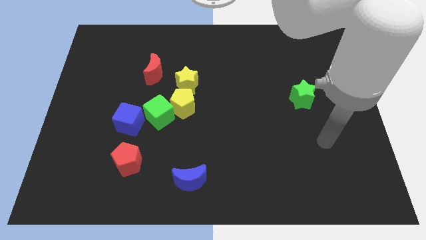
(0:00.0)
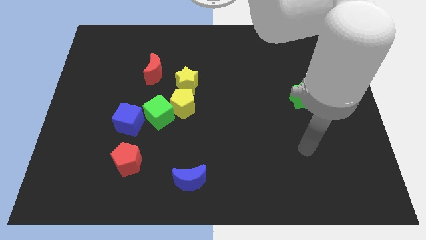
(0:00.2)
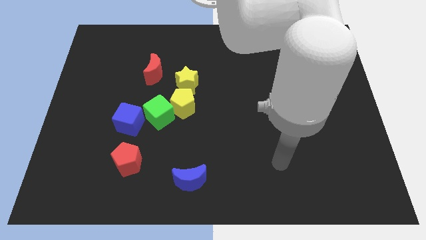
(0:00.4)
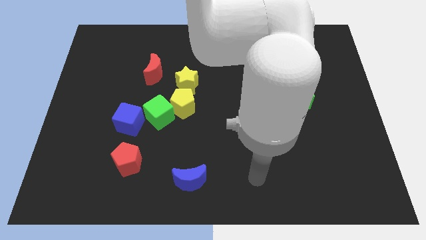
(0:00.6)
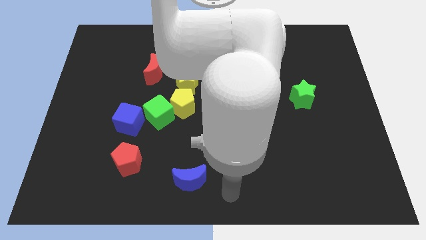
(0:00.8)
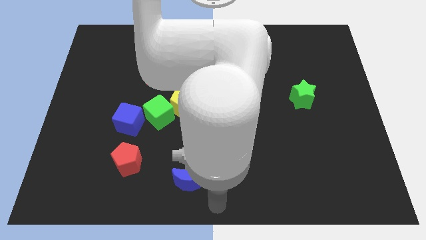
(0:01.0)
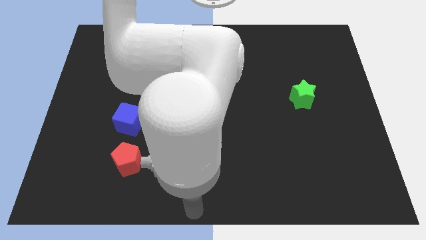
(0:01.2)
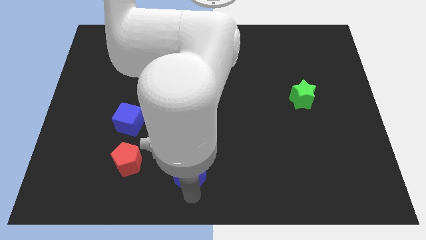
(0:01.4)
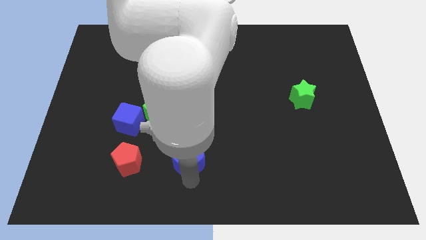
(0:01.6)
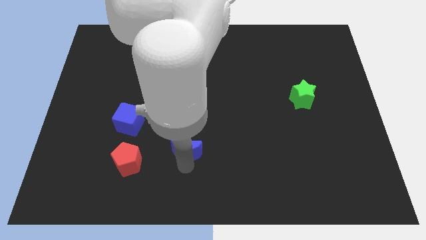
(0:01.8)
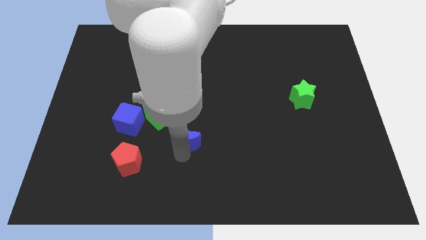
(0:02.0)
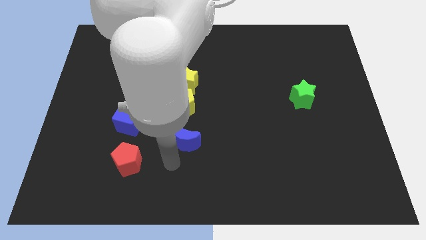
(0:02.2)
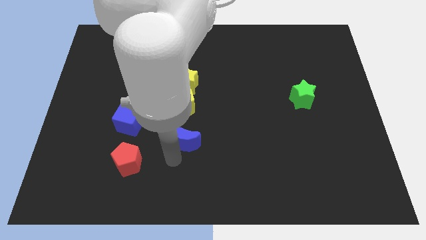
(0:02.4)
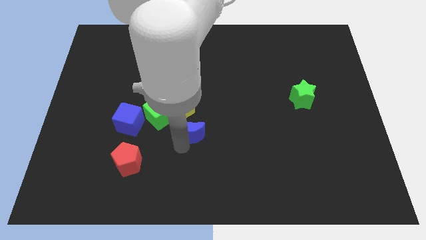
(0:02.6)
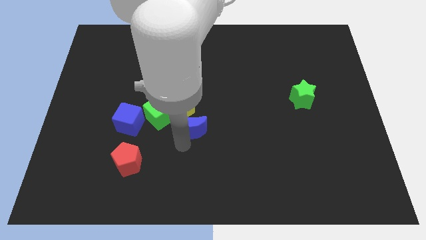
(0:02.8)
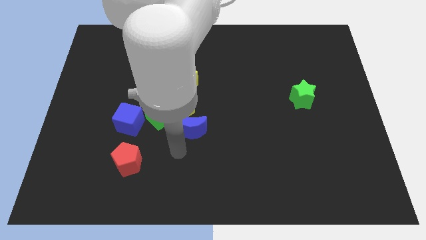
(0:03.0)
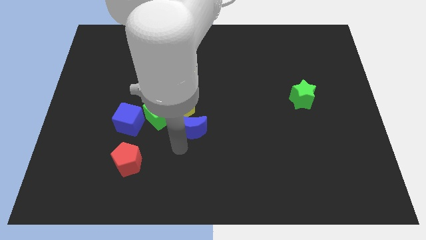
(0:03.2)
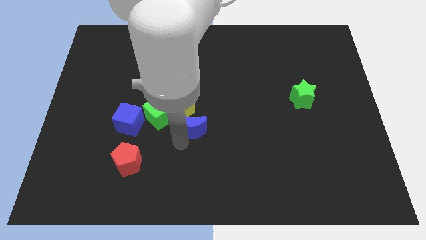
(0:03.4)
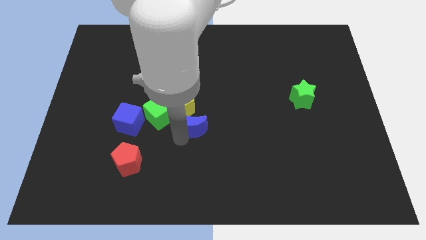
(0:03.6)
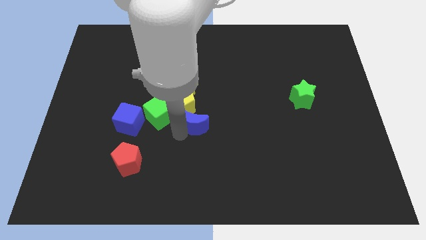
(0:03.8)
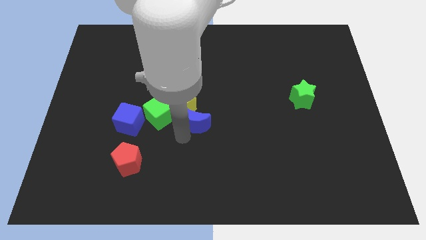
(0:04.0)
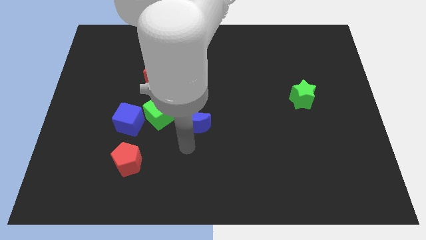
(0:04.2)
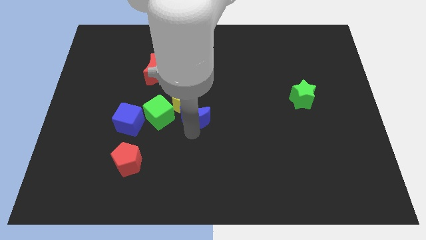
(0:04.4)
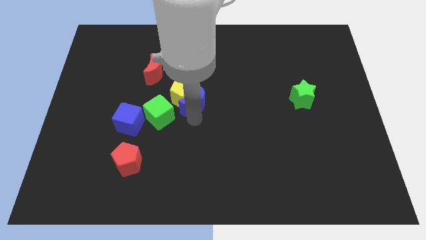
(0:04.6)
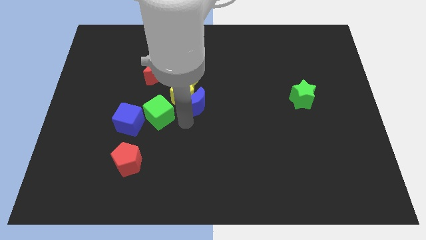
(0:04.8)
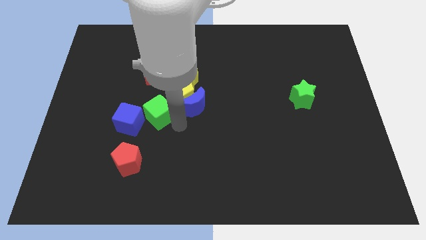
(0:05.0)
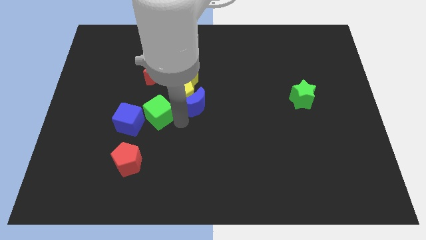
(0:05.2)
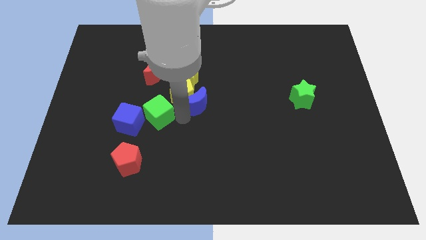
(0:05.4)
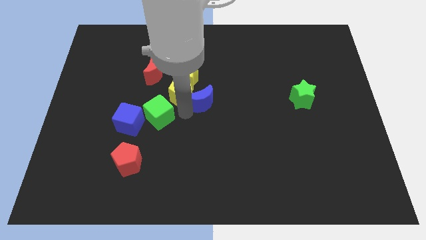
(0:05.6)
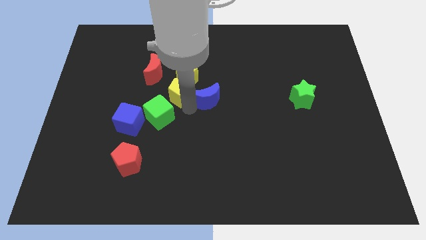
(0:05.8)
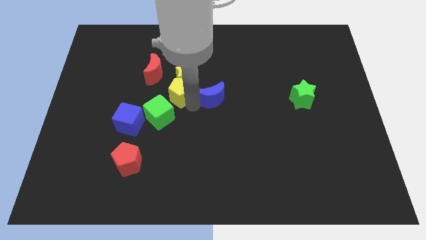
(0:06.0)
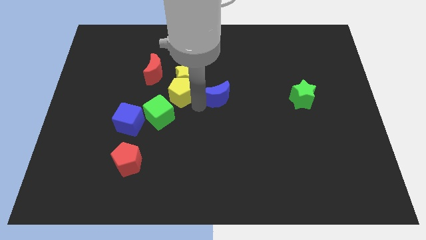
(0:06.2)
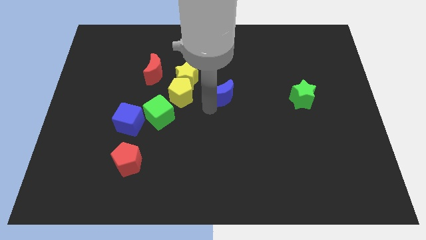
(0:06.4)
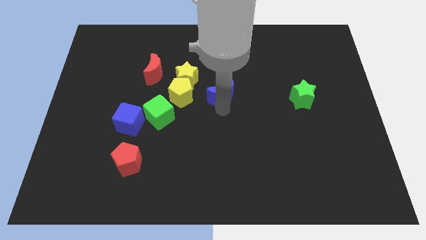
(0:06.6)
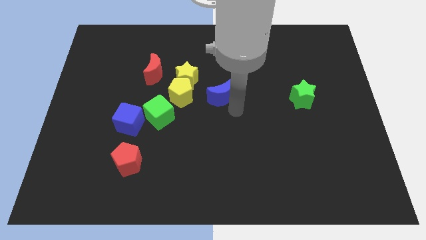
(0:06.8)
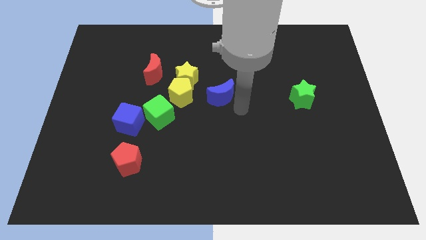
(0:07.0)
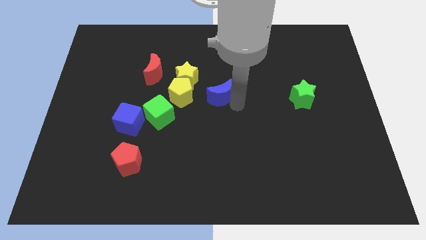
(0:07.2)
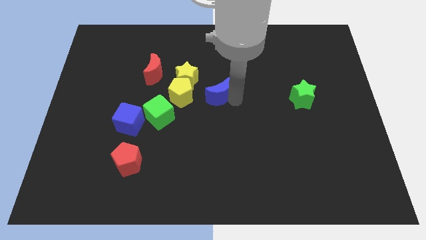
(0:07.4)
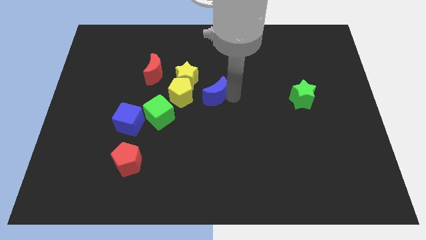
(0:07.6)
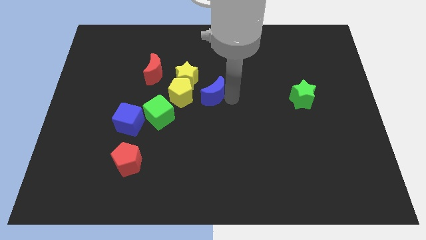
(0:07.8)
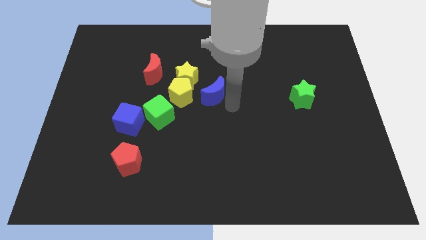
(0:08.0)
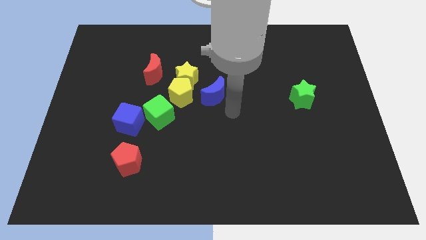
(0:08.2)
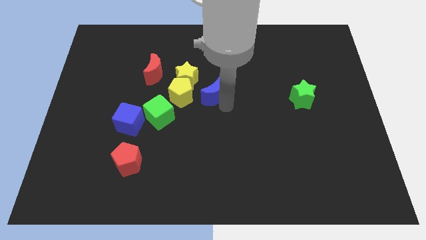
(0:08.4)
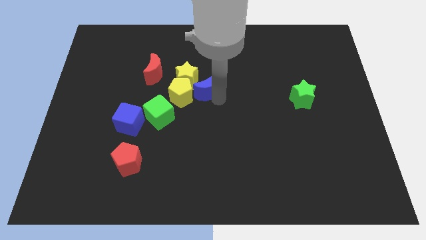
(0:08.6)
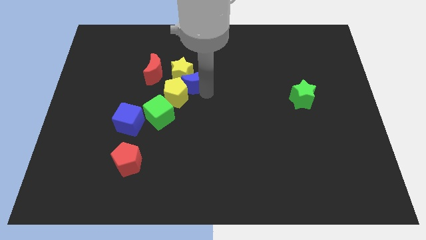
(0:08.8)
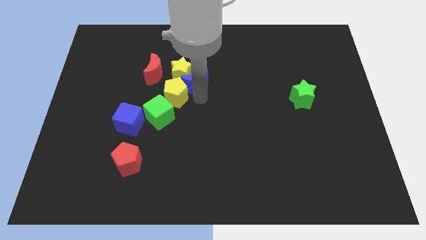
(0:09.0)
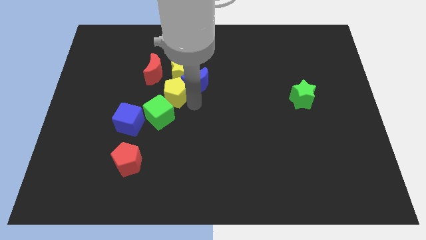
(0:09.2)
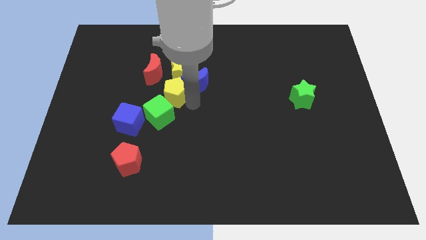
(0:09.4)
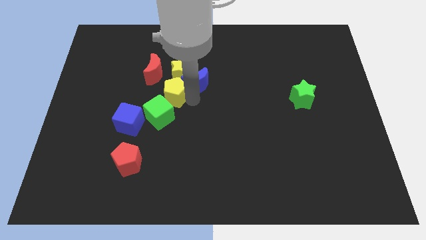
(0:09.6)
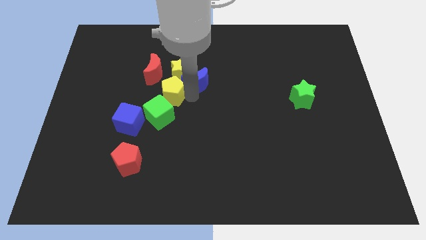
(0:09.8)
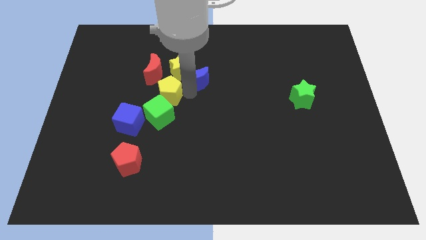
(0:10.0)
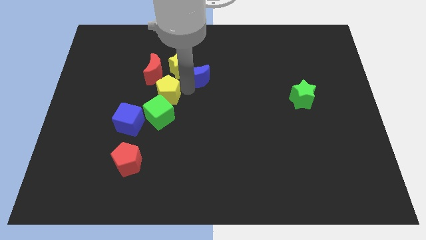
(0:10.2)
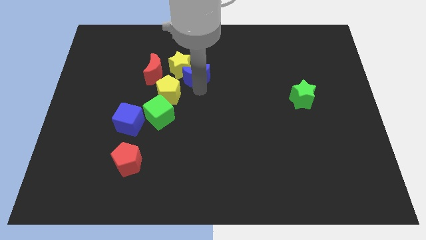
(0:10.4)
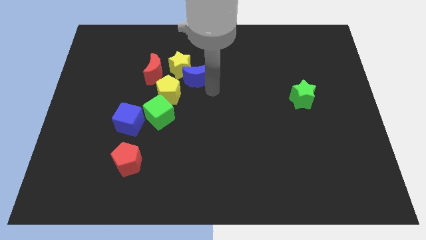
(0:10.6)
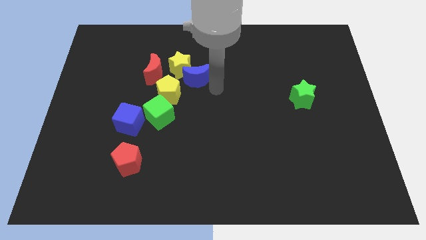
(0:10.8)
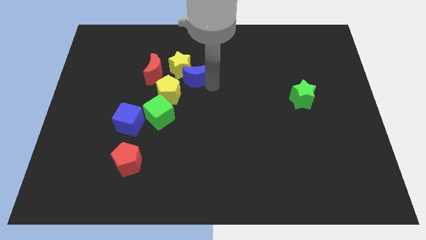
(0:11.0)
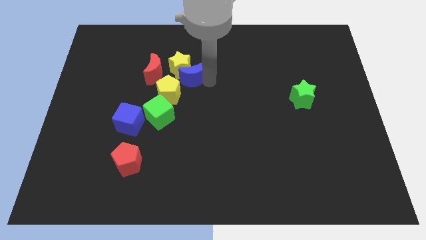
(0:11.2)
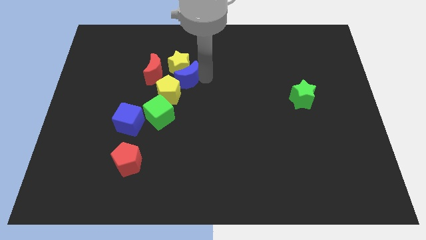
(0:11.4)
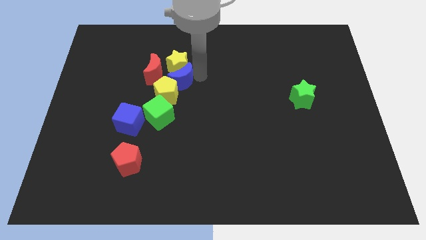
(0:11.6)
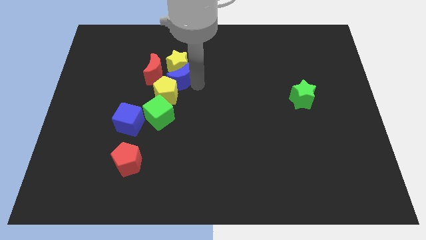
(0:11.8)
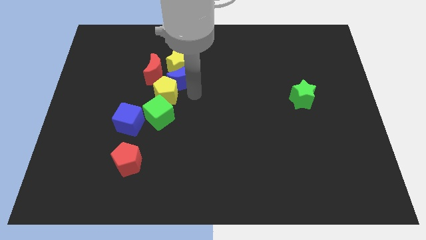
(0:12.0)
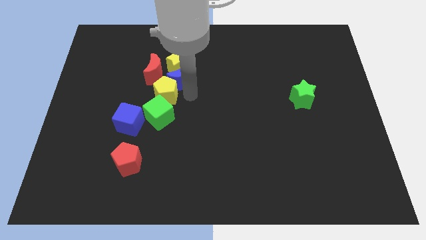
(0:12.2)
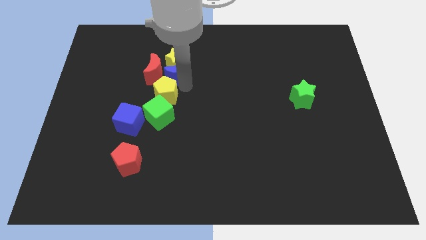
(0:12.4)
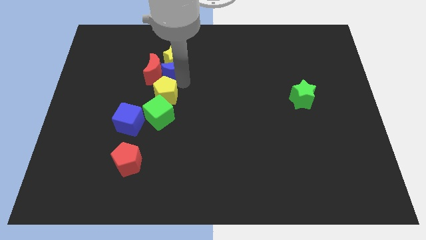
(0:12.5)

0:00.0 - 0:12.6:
push the blue moon towards the red moon
